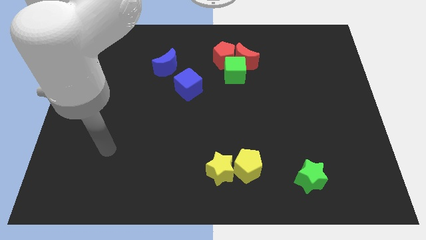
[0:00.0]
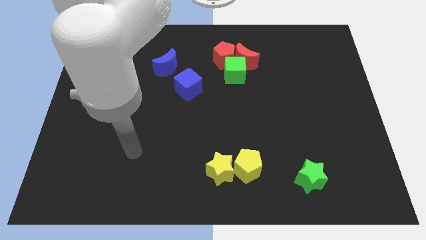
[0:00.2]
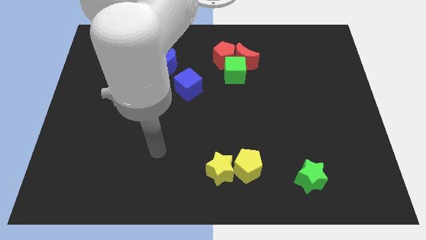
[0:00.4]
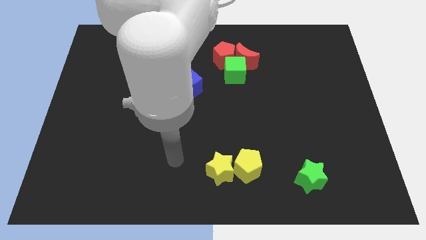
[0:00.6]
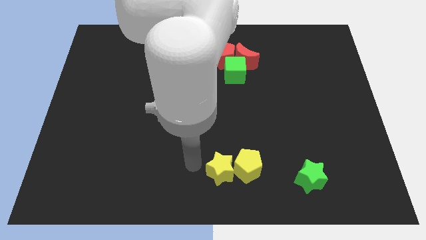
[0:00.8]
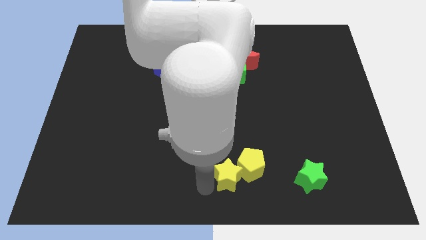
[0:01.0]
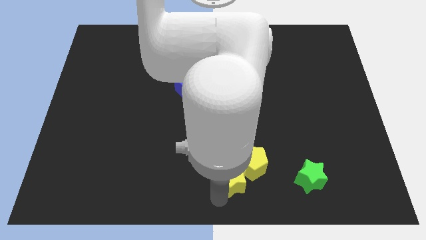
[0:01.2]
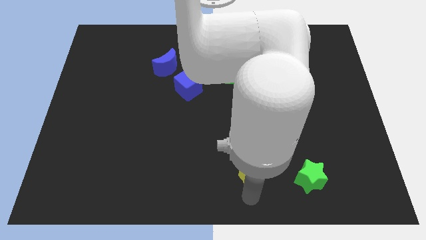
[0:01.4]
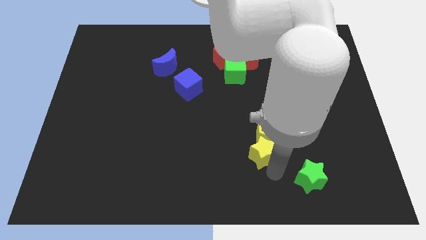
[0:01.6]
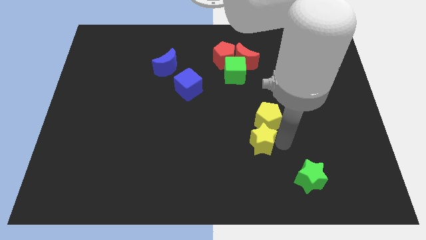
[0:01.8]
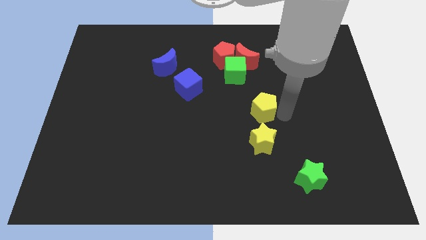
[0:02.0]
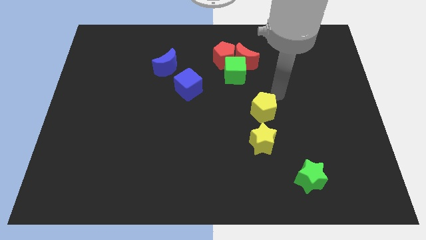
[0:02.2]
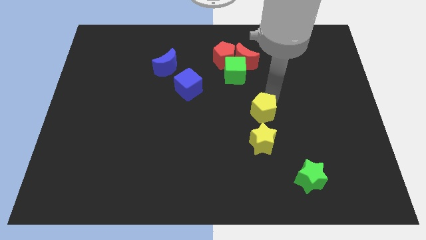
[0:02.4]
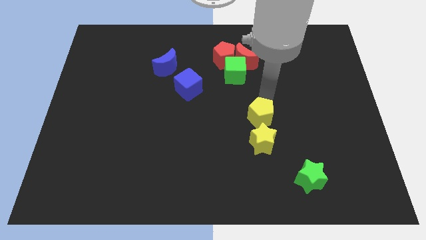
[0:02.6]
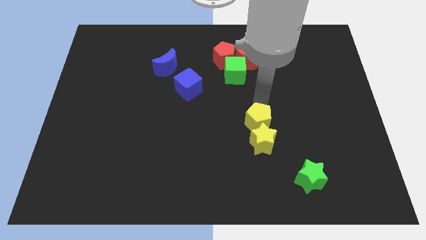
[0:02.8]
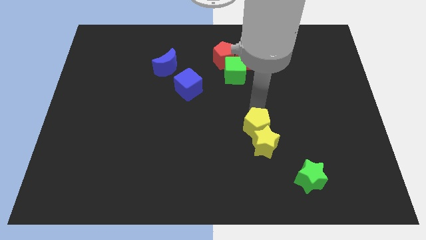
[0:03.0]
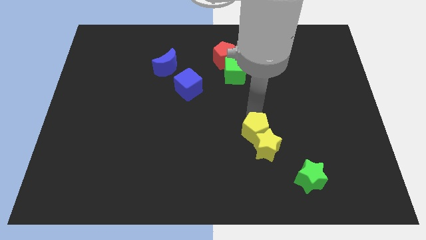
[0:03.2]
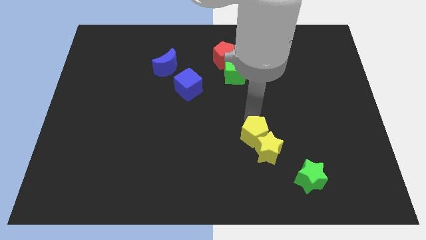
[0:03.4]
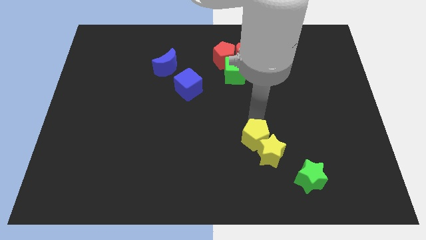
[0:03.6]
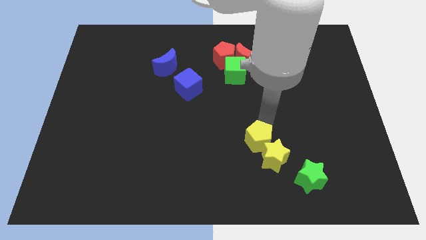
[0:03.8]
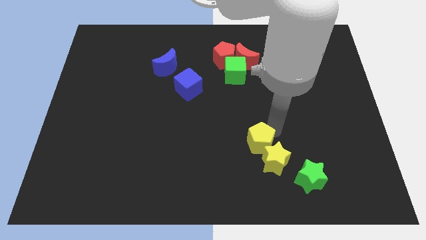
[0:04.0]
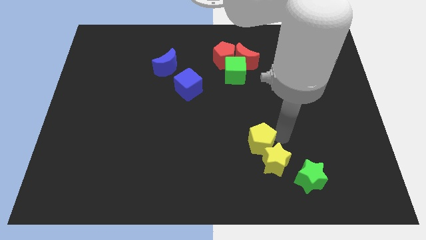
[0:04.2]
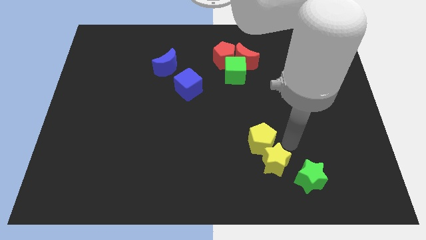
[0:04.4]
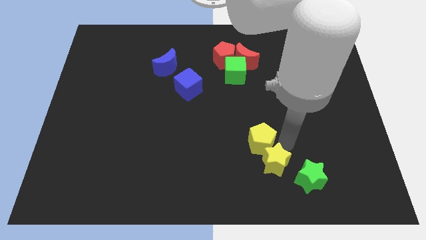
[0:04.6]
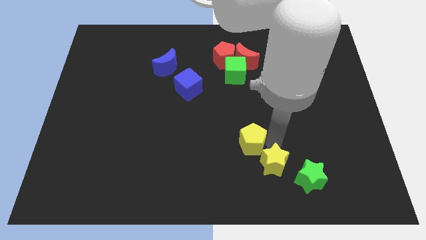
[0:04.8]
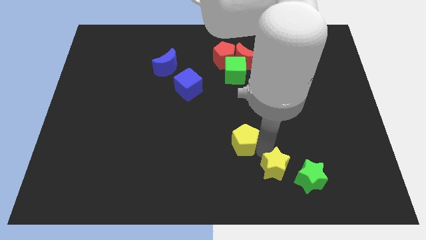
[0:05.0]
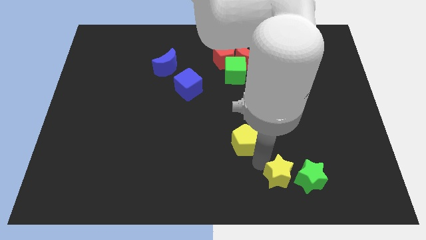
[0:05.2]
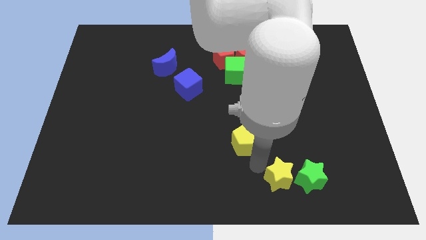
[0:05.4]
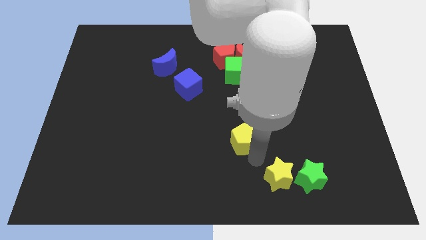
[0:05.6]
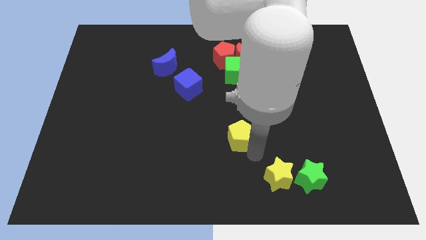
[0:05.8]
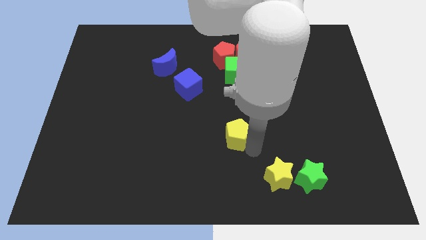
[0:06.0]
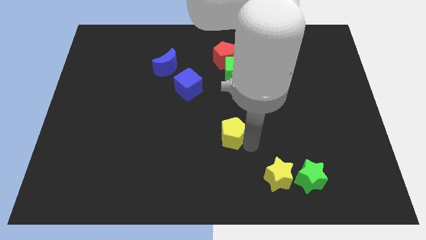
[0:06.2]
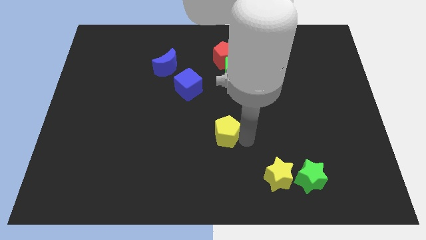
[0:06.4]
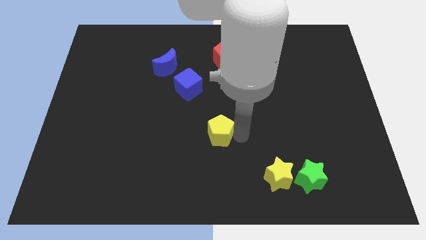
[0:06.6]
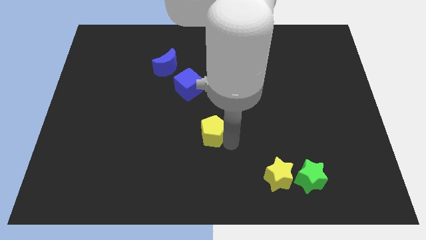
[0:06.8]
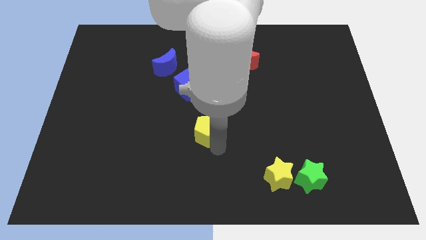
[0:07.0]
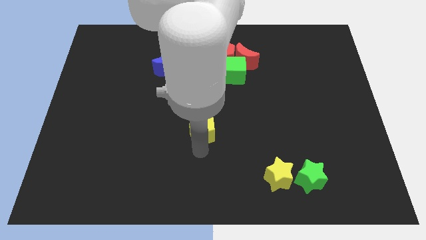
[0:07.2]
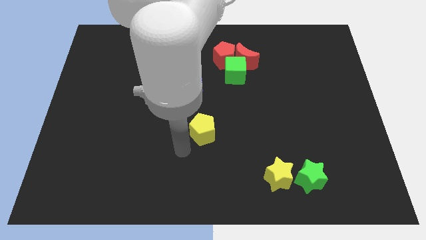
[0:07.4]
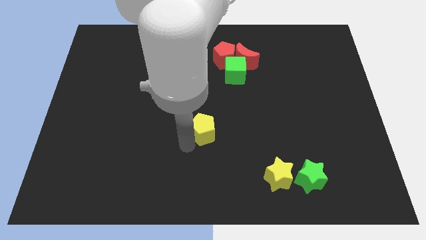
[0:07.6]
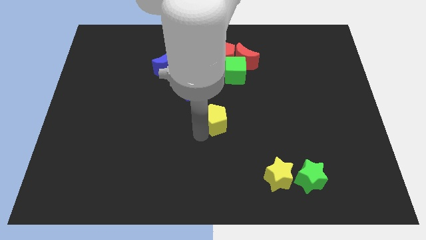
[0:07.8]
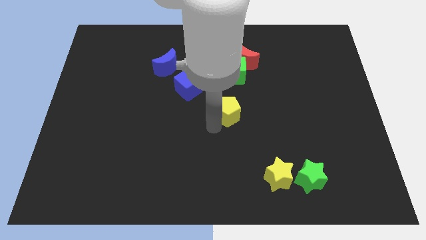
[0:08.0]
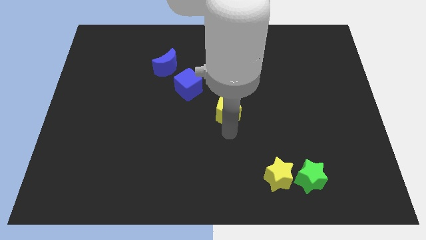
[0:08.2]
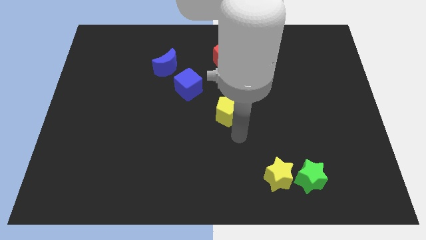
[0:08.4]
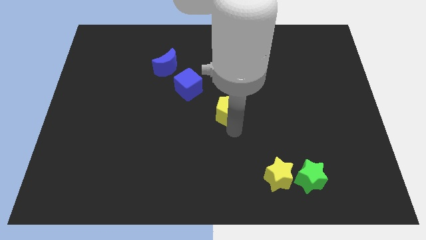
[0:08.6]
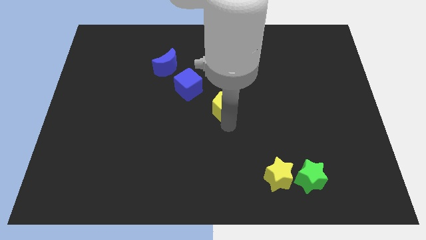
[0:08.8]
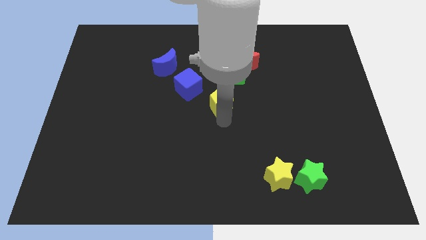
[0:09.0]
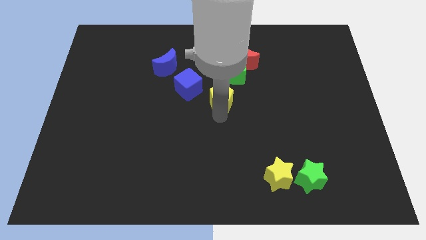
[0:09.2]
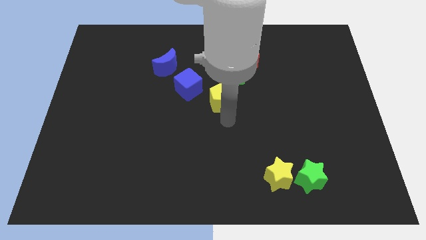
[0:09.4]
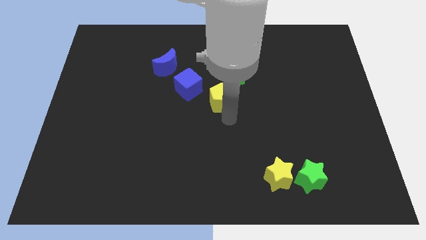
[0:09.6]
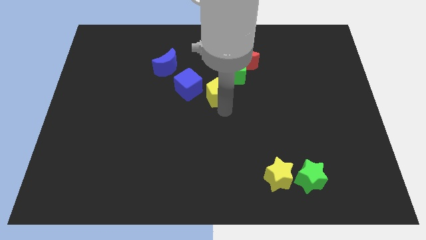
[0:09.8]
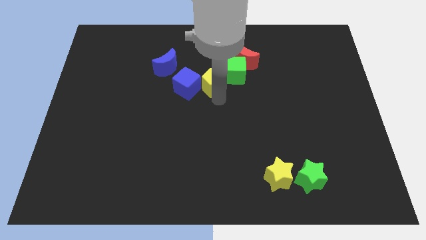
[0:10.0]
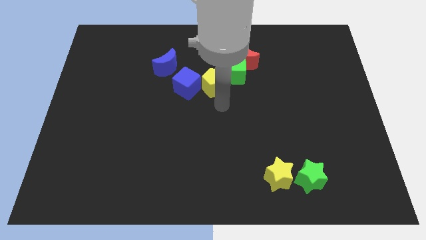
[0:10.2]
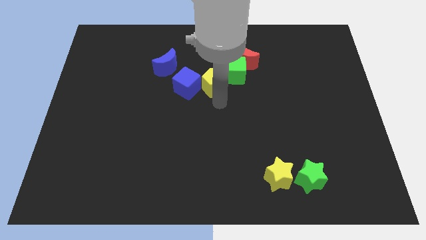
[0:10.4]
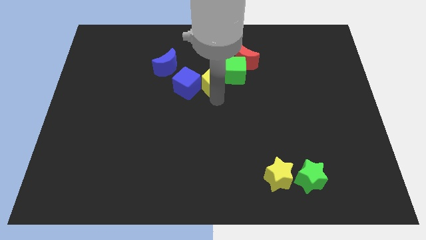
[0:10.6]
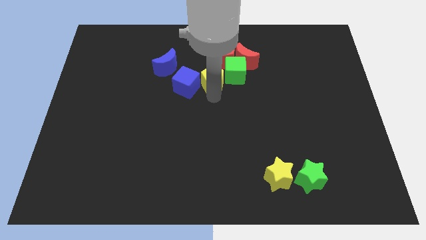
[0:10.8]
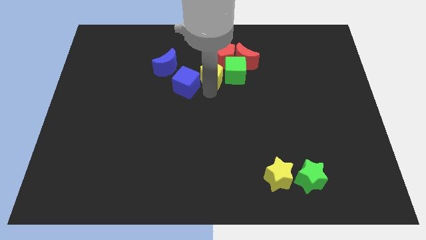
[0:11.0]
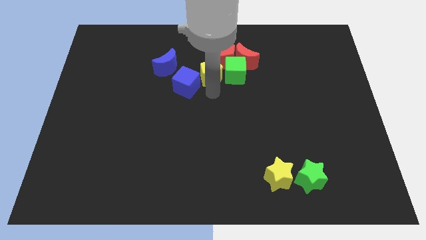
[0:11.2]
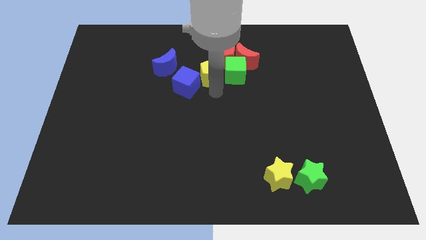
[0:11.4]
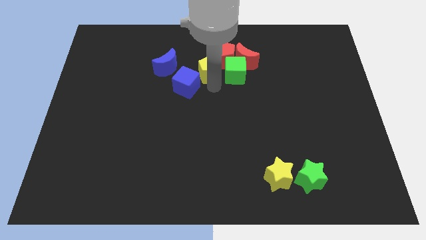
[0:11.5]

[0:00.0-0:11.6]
put the yellow pentagon to the left of the red moon

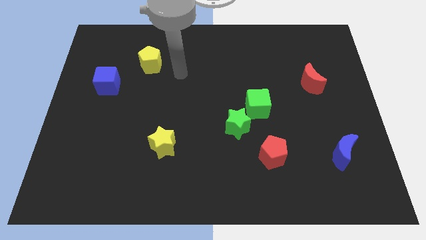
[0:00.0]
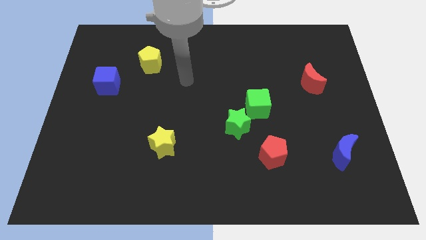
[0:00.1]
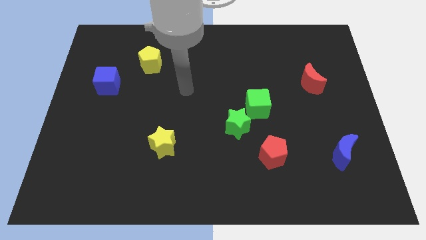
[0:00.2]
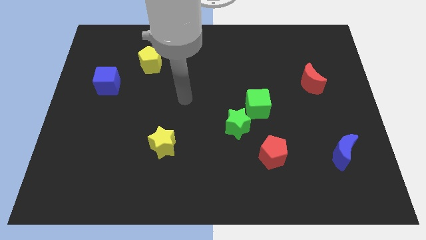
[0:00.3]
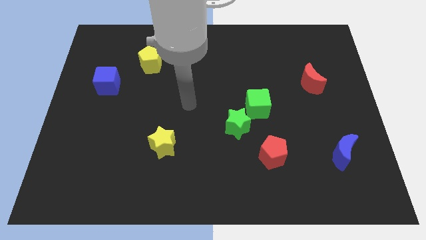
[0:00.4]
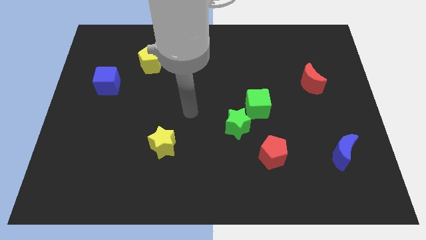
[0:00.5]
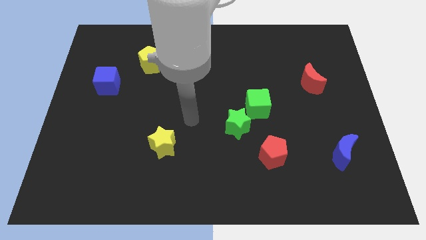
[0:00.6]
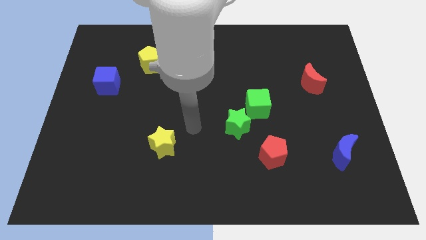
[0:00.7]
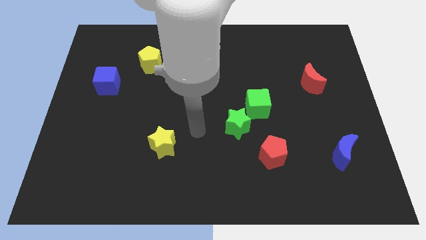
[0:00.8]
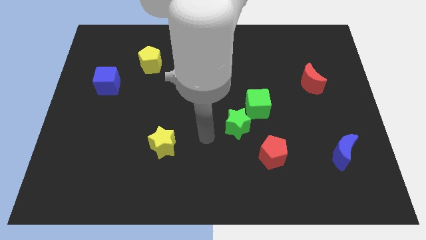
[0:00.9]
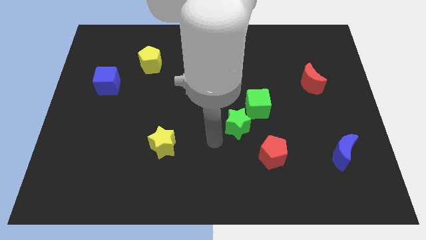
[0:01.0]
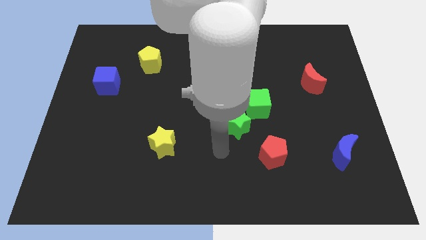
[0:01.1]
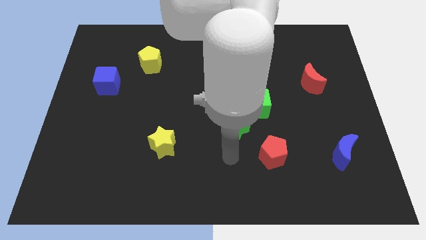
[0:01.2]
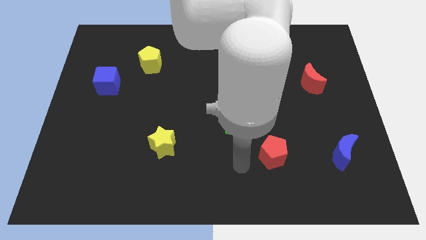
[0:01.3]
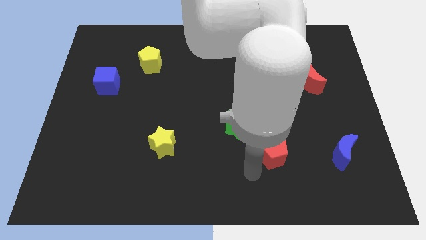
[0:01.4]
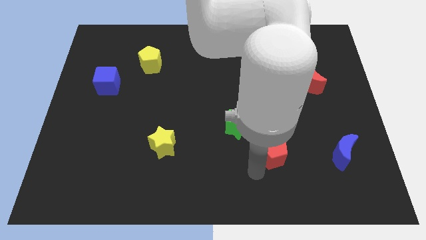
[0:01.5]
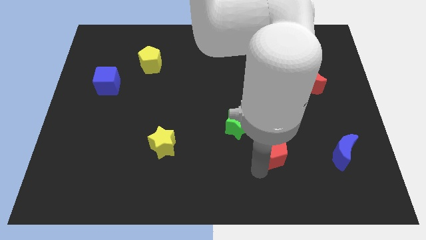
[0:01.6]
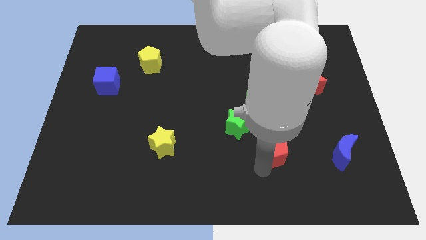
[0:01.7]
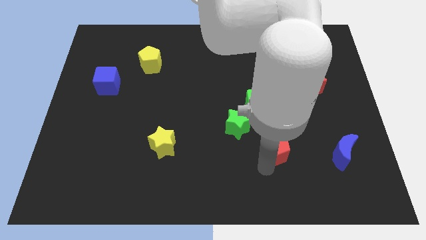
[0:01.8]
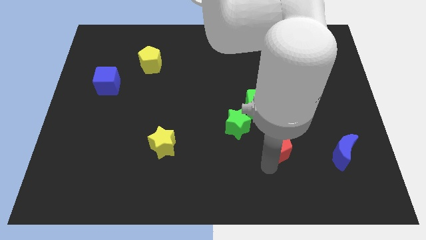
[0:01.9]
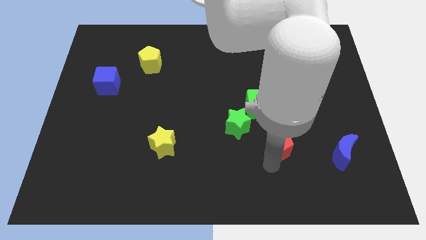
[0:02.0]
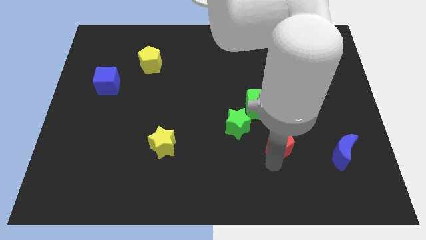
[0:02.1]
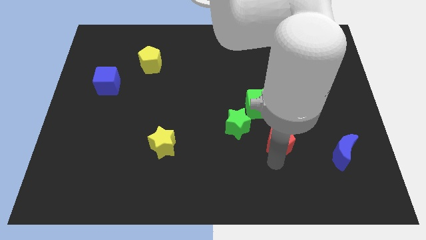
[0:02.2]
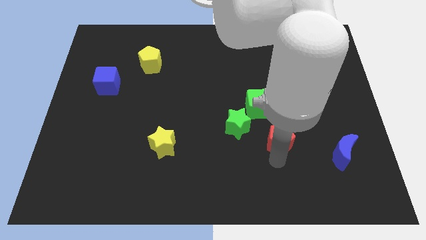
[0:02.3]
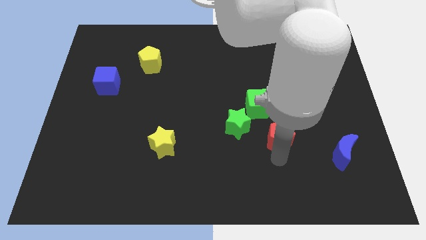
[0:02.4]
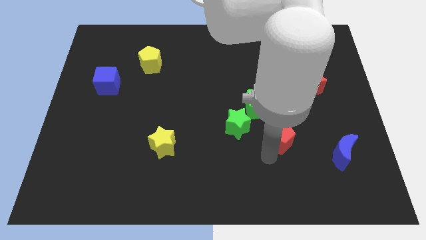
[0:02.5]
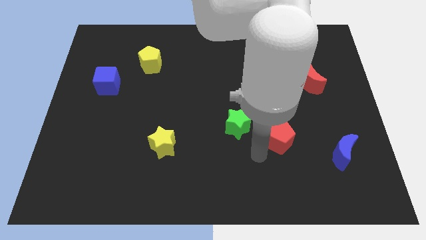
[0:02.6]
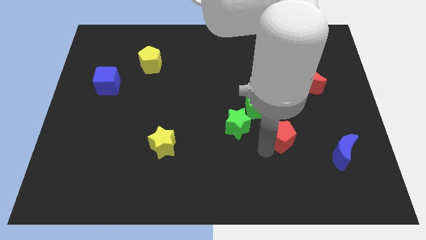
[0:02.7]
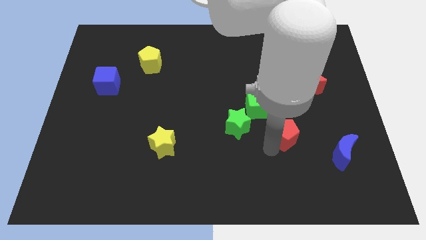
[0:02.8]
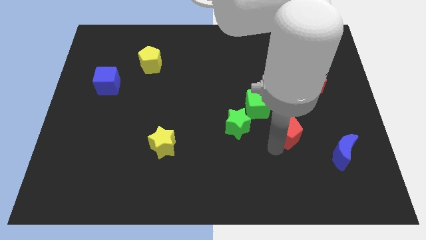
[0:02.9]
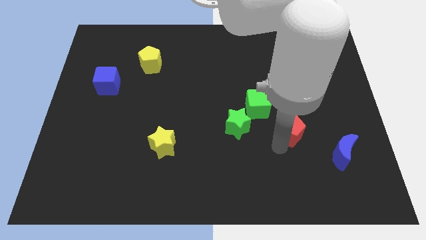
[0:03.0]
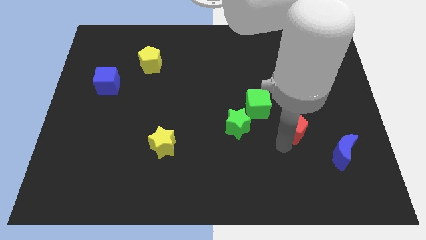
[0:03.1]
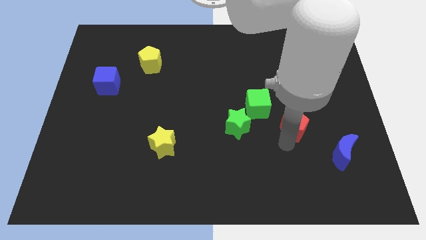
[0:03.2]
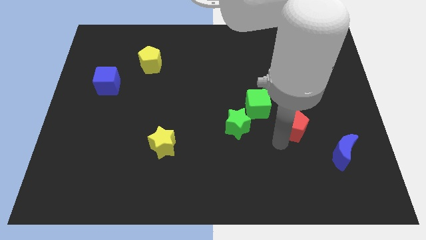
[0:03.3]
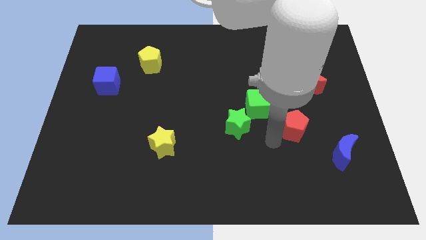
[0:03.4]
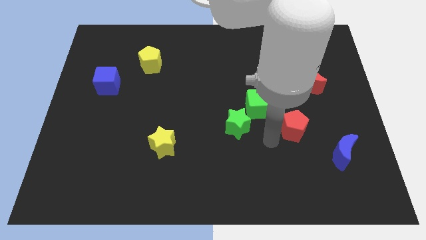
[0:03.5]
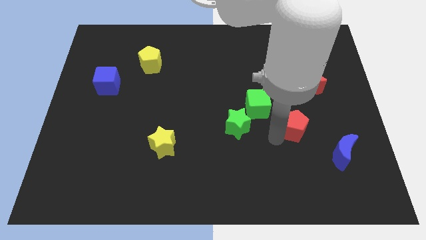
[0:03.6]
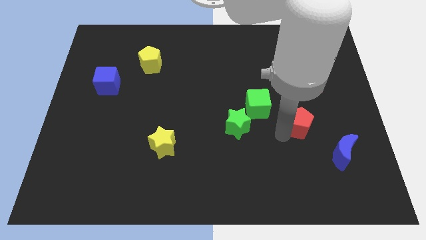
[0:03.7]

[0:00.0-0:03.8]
push the red pentagon below the red moon
